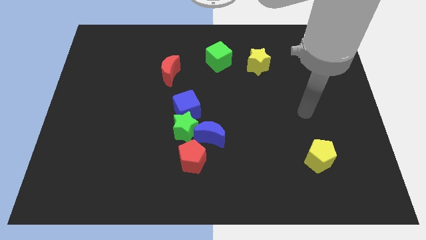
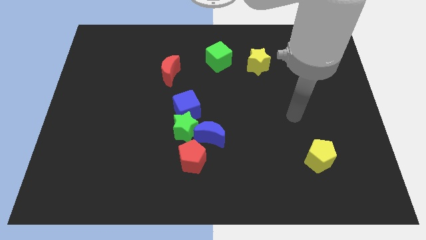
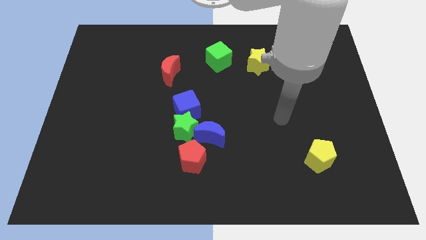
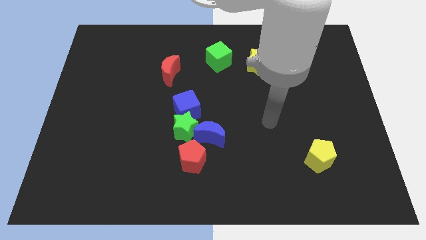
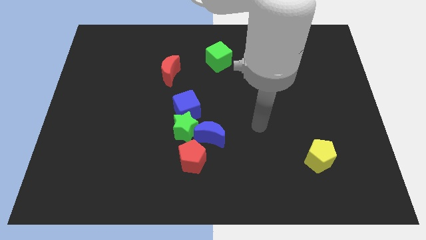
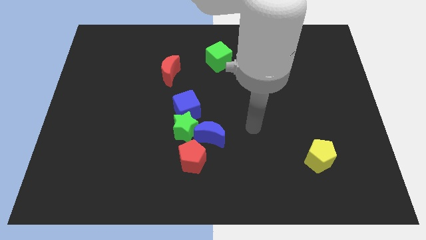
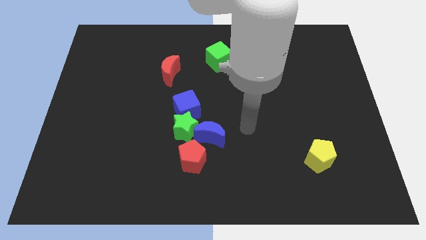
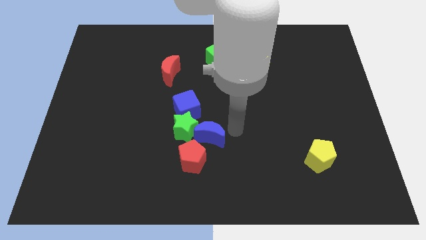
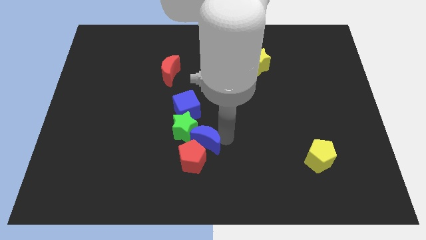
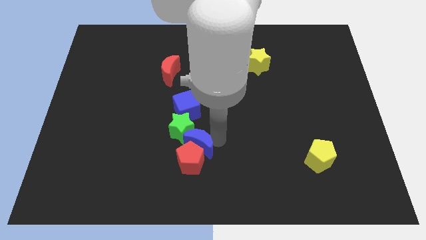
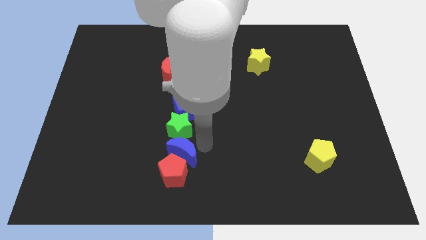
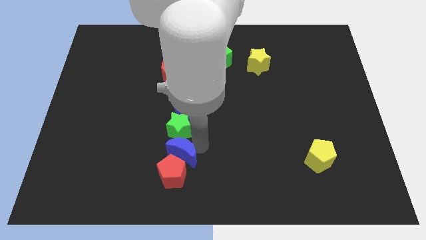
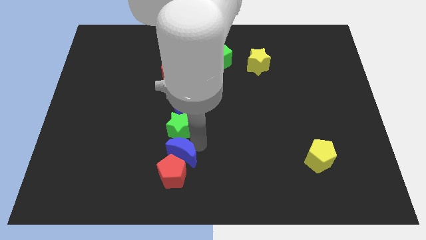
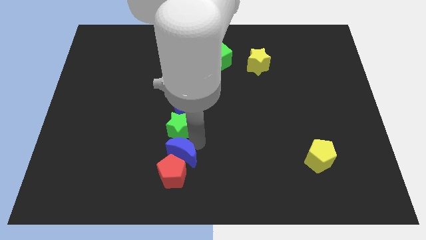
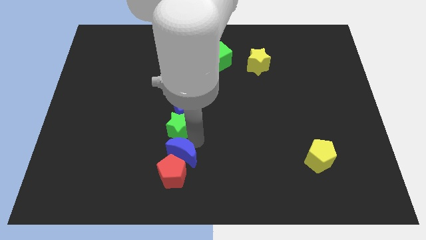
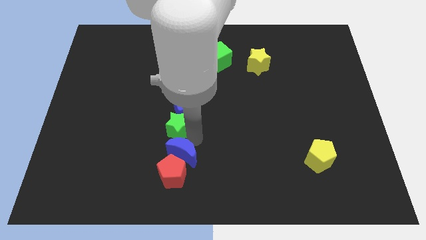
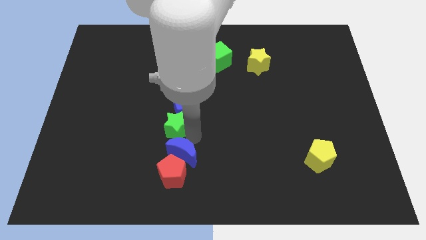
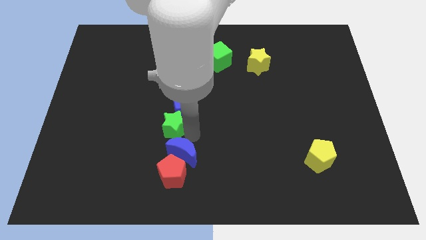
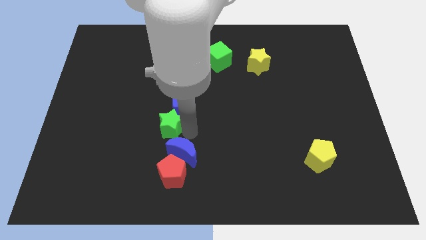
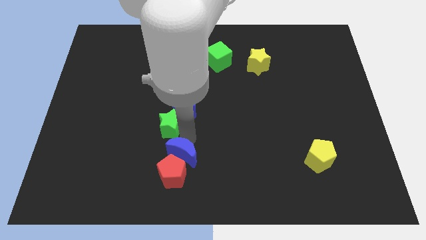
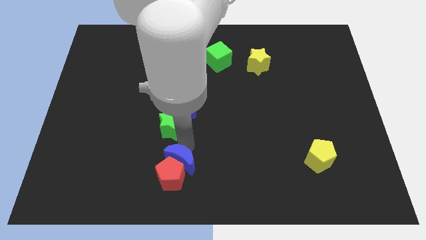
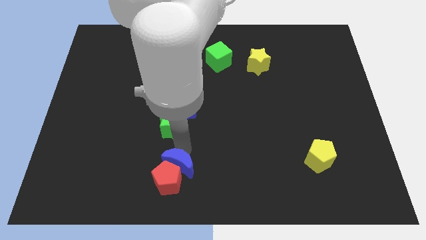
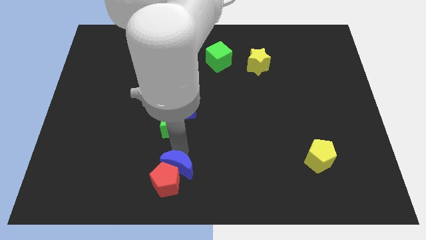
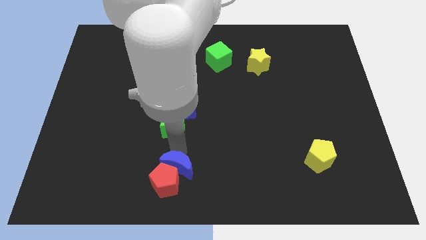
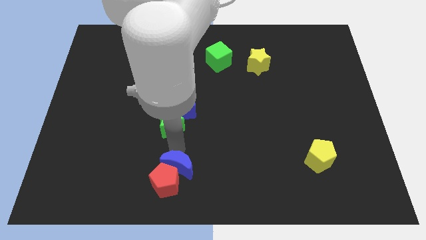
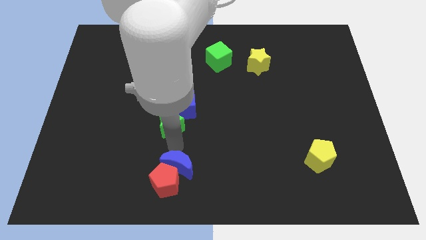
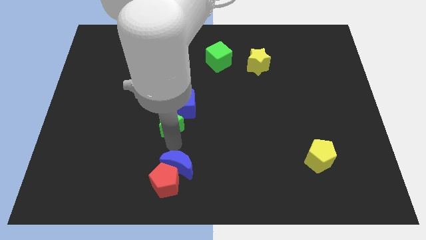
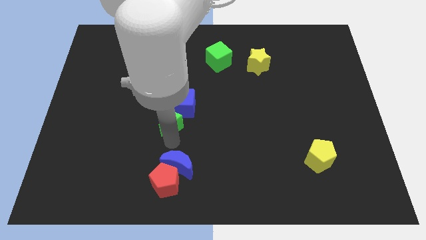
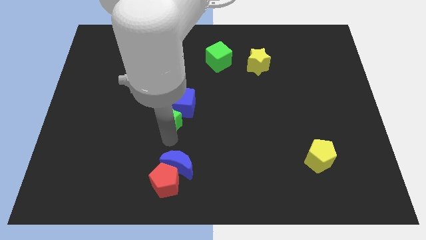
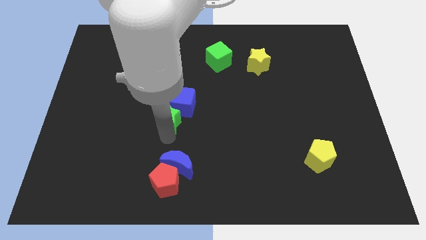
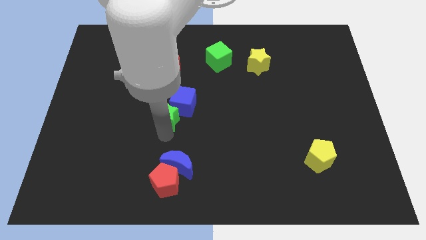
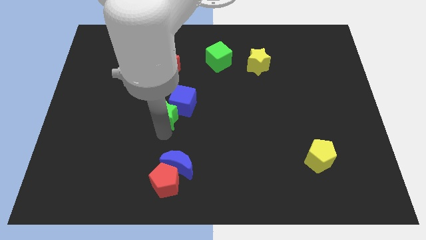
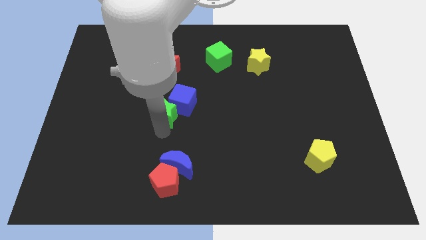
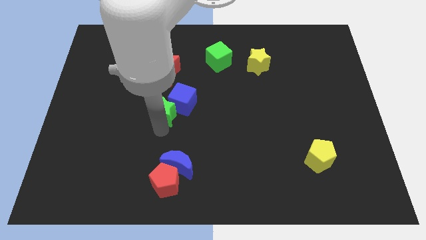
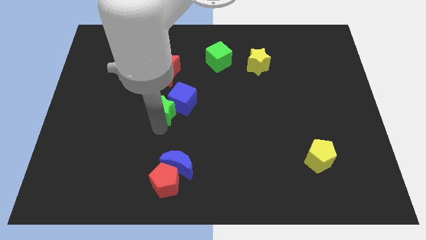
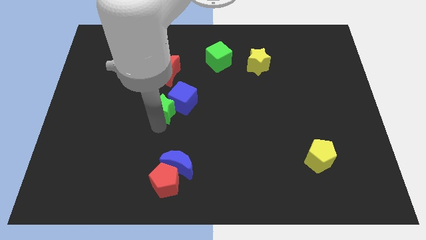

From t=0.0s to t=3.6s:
pull the green star apart from the blue cube, blue moon, and red pentagon

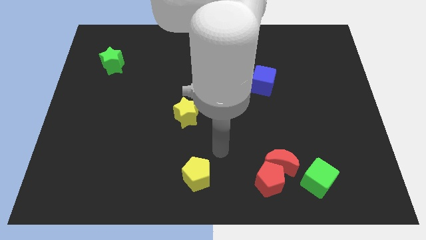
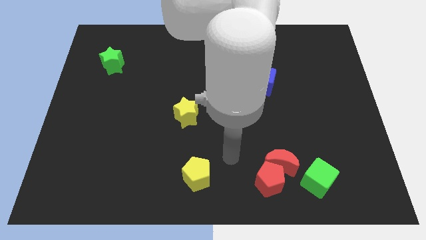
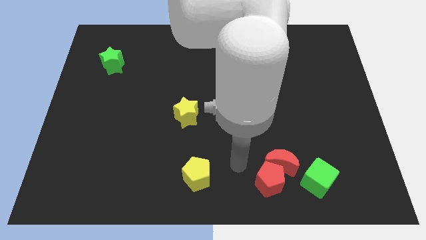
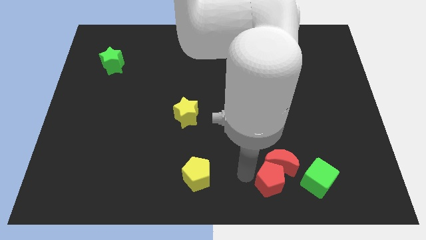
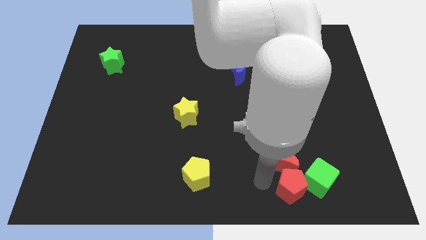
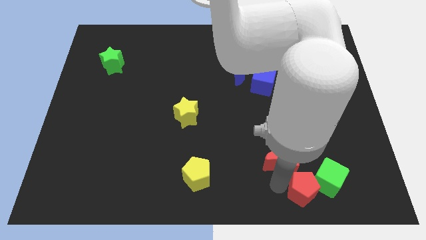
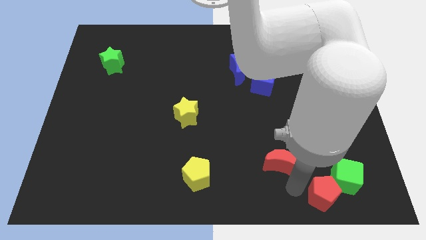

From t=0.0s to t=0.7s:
pull the red moon apart from the red pentagon and green cube

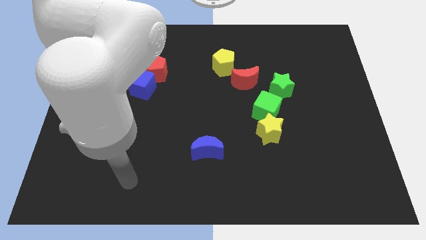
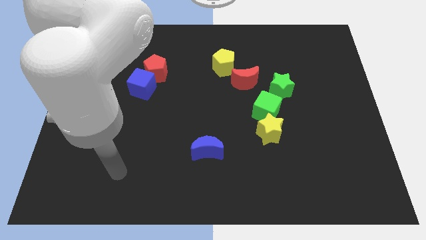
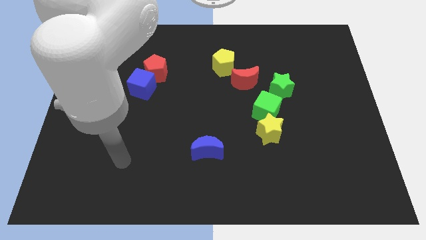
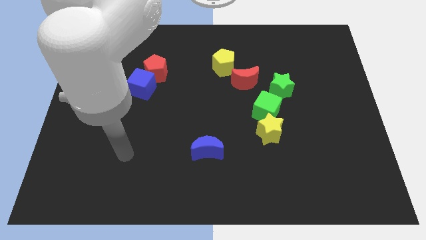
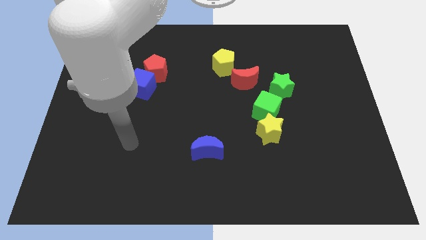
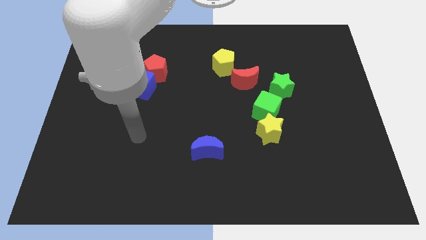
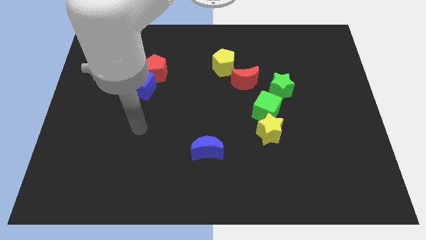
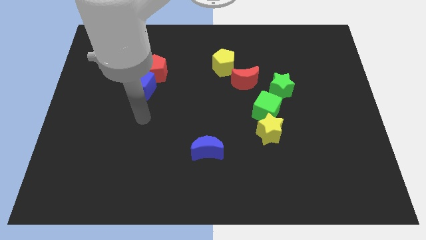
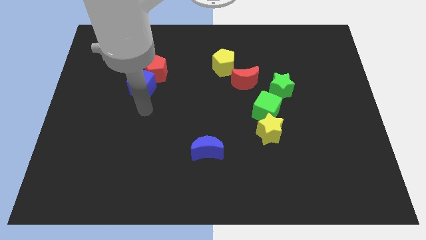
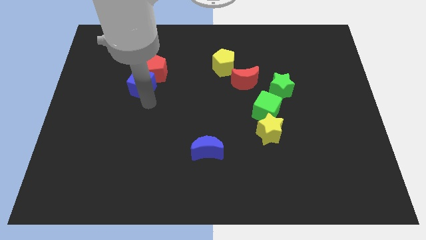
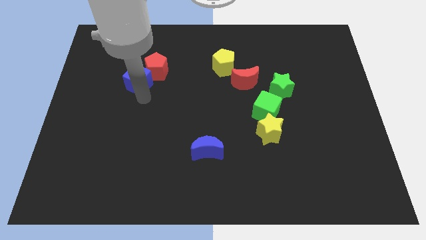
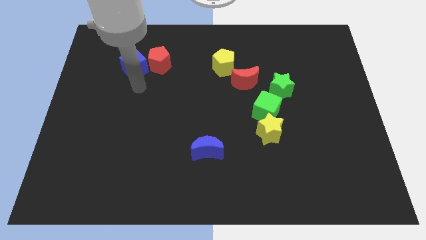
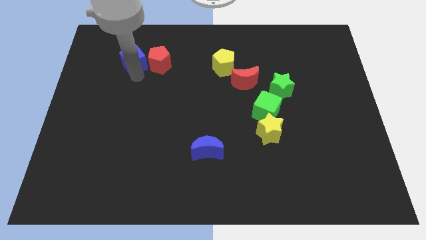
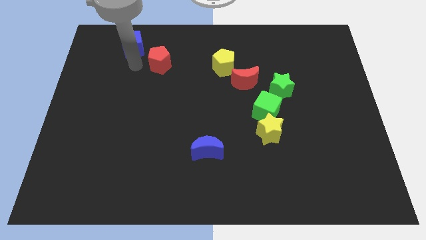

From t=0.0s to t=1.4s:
pull the red pentagon apart from the blue cube

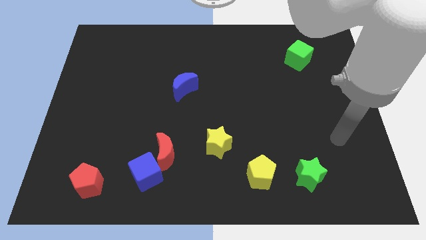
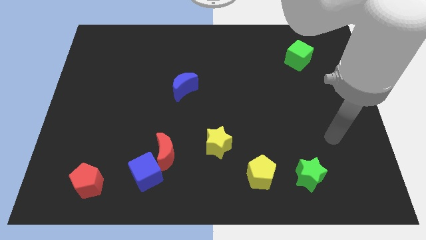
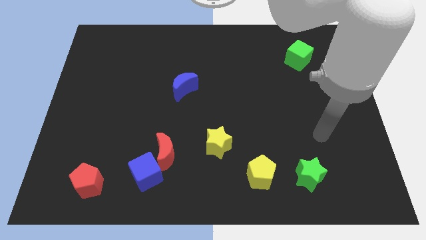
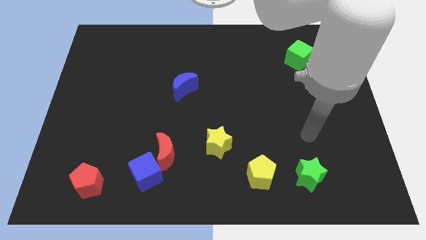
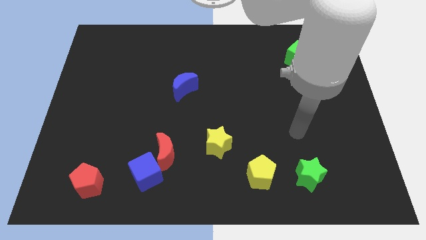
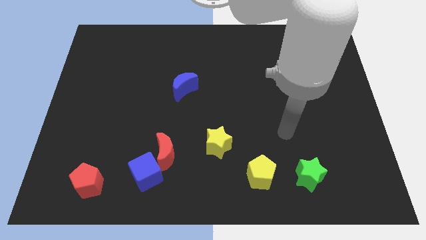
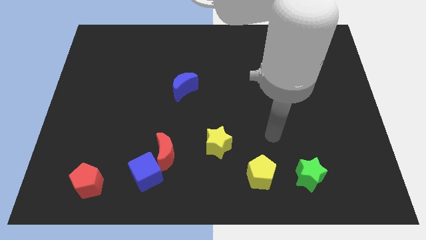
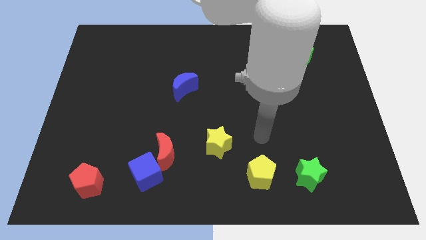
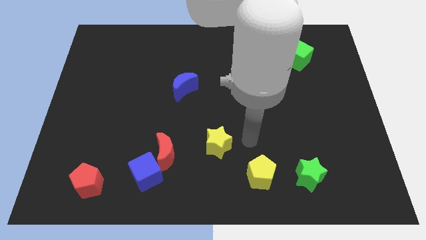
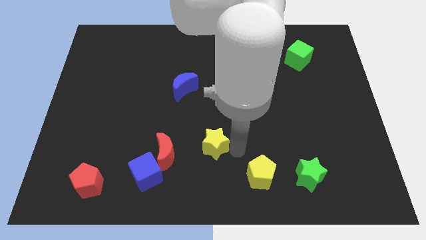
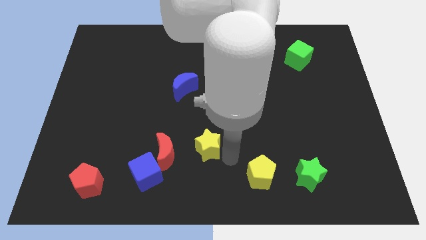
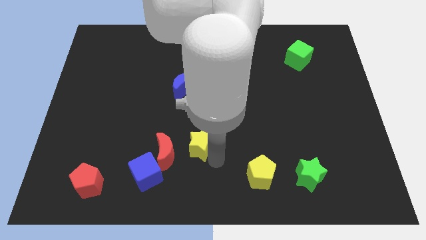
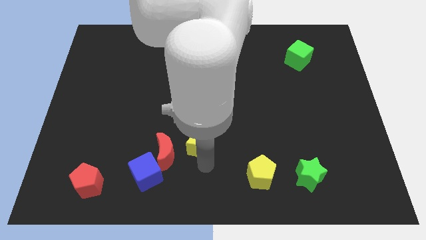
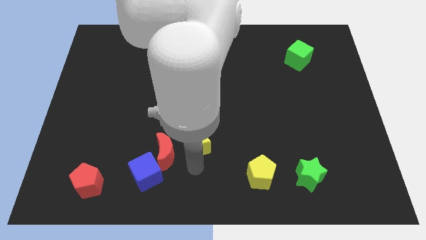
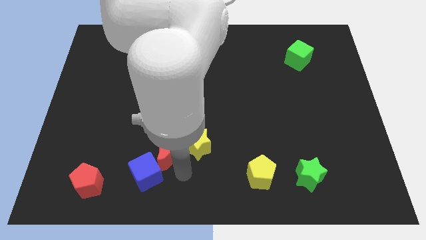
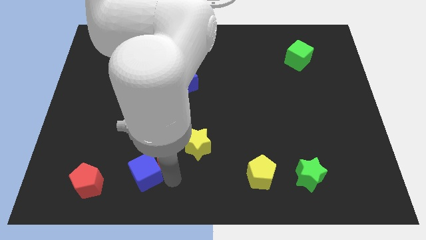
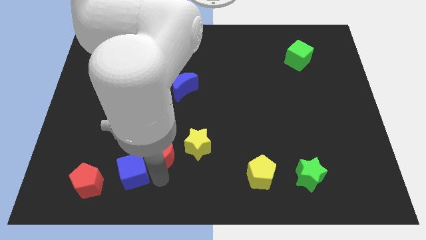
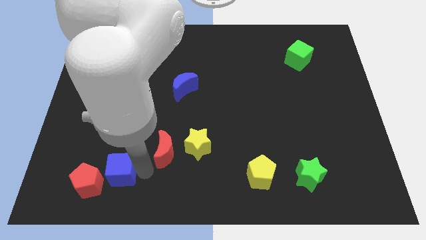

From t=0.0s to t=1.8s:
separate the red moon from the blue cube

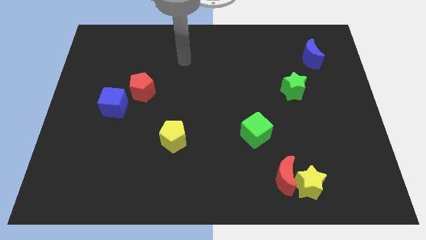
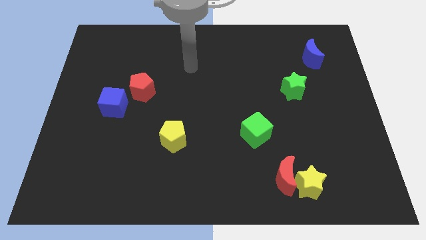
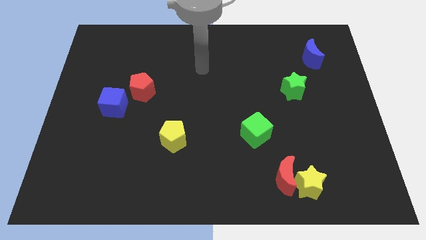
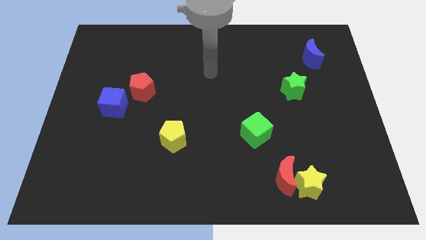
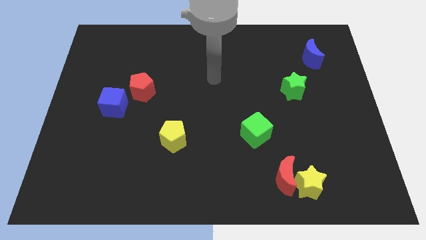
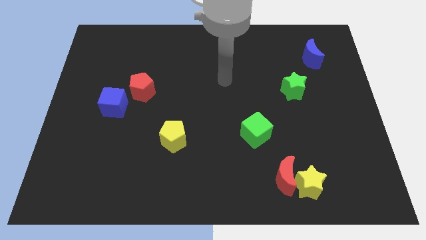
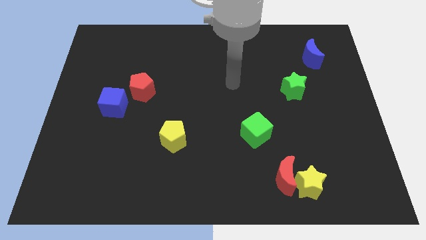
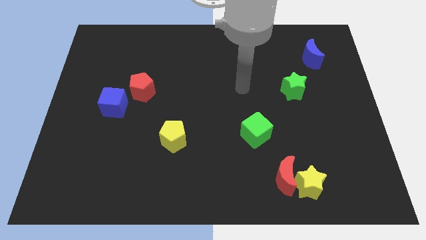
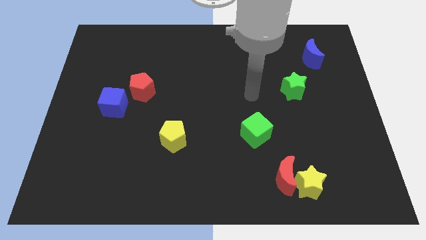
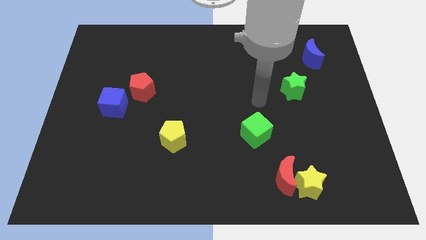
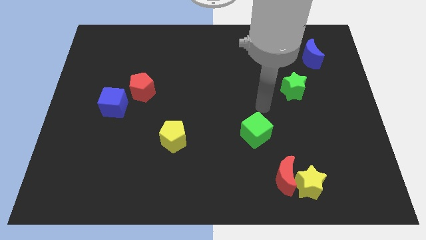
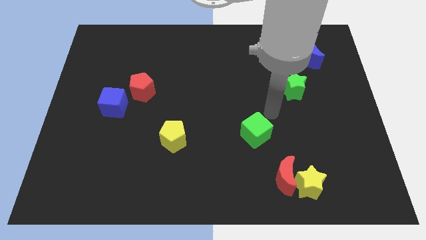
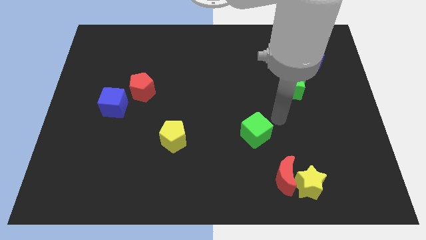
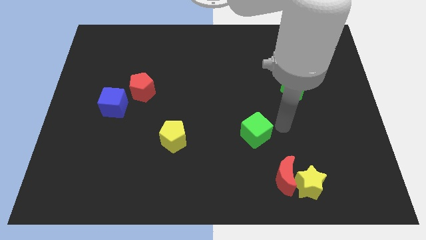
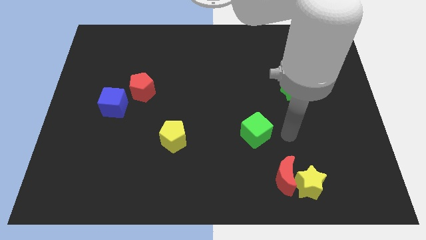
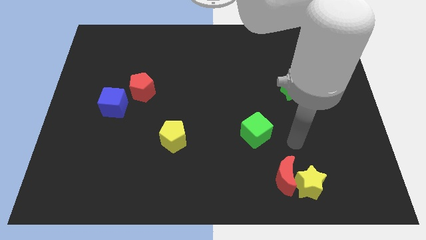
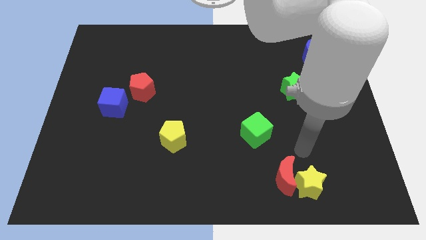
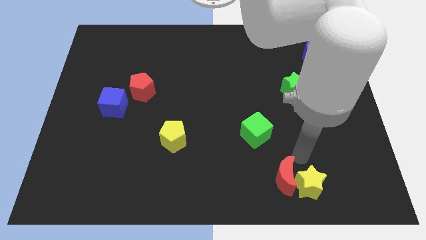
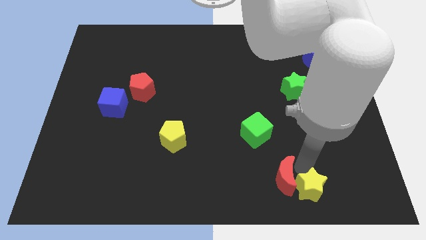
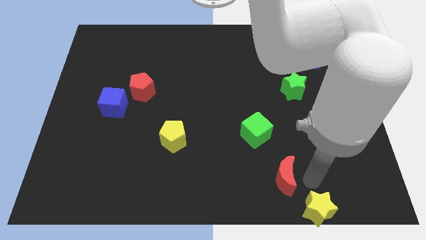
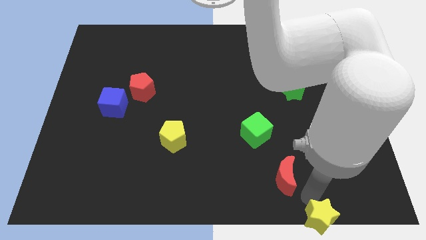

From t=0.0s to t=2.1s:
separate the red moon from the yellow star
